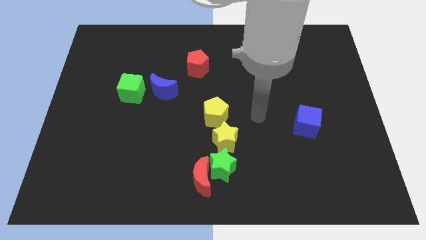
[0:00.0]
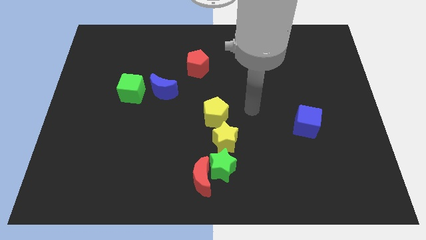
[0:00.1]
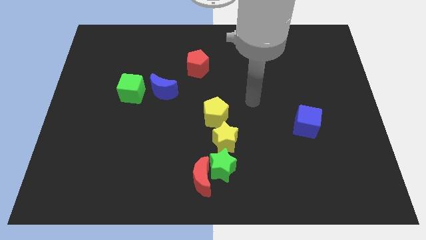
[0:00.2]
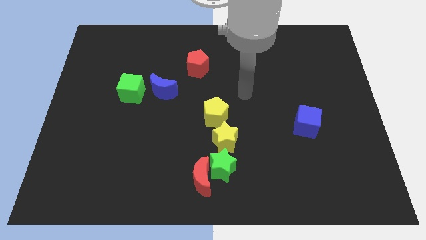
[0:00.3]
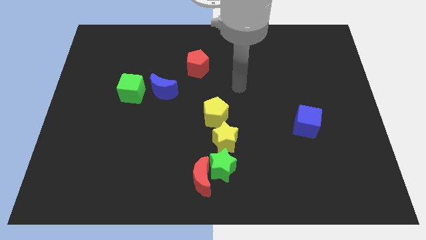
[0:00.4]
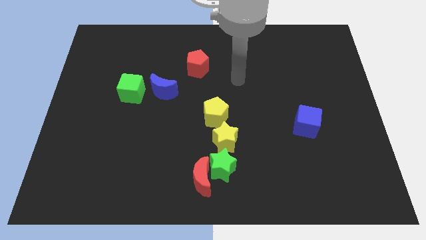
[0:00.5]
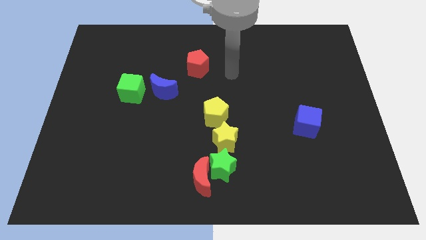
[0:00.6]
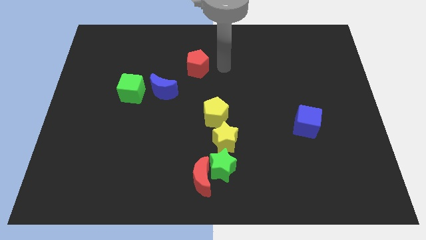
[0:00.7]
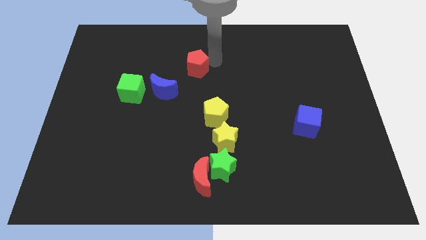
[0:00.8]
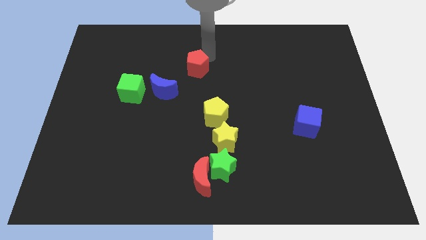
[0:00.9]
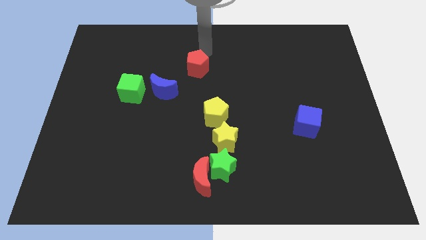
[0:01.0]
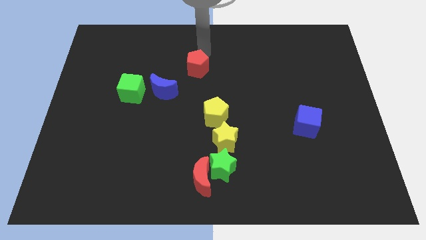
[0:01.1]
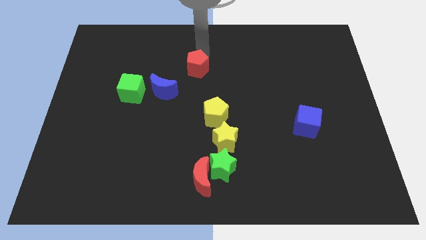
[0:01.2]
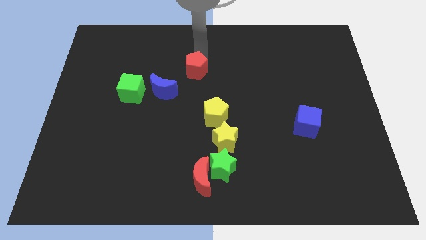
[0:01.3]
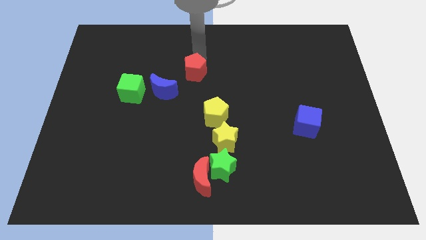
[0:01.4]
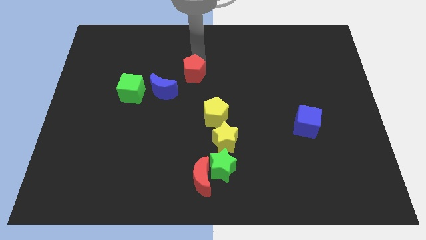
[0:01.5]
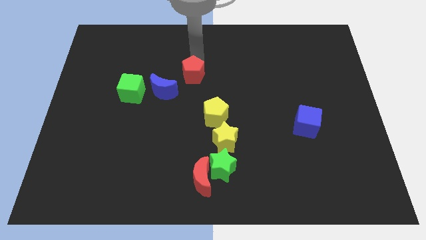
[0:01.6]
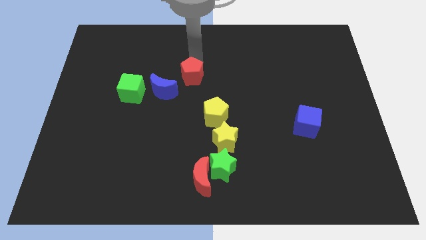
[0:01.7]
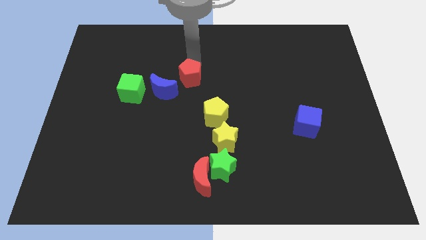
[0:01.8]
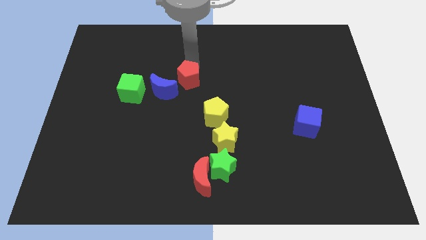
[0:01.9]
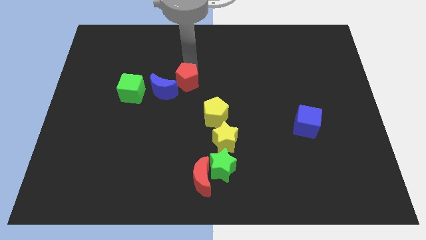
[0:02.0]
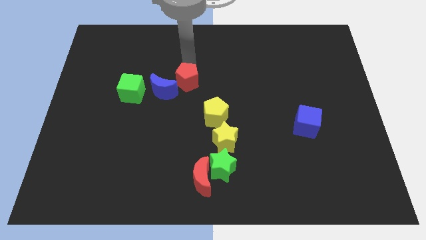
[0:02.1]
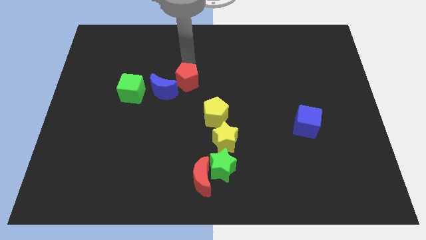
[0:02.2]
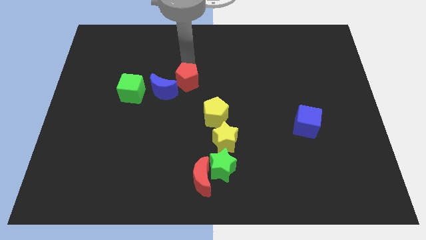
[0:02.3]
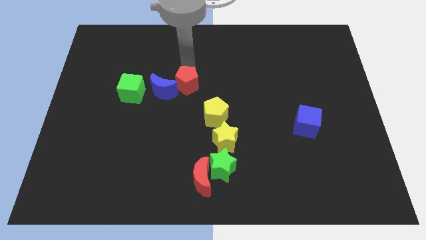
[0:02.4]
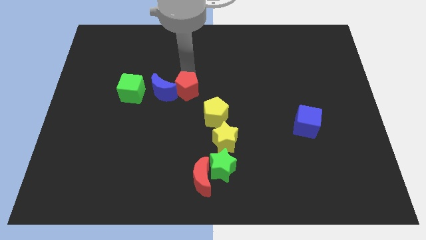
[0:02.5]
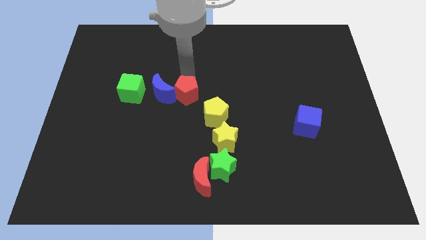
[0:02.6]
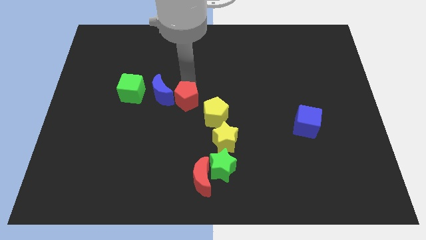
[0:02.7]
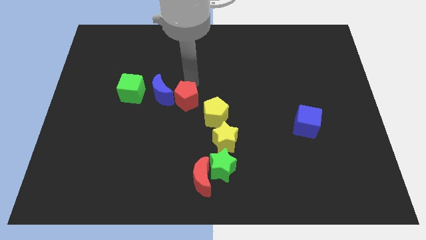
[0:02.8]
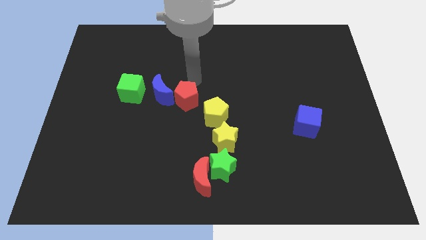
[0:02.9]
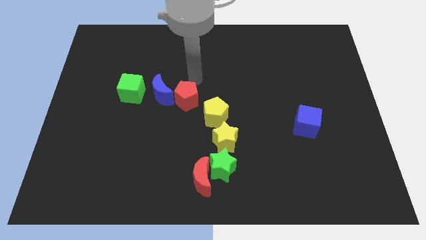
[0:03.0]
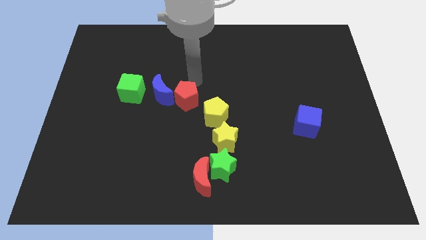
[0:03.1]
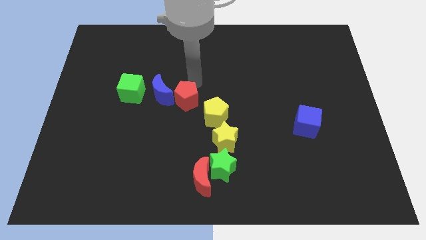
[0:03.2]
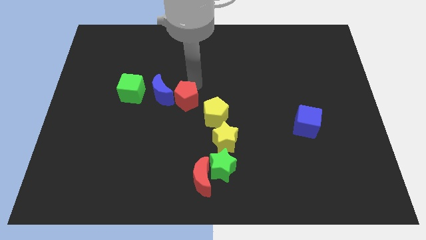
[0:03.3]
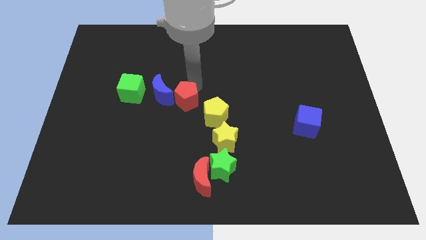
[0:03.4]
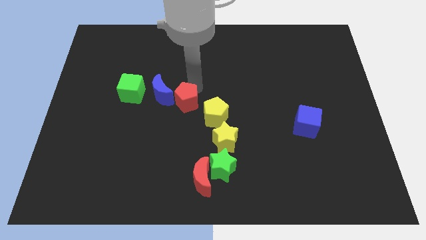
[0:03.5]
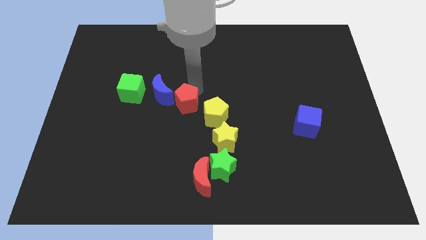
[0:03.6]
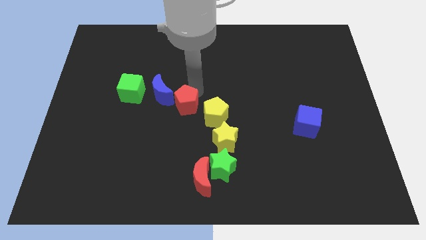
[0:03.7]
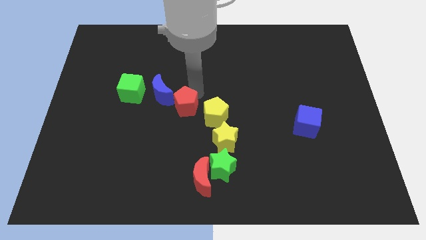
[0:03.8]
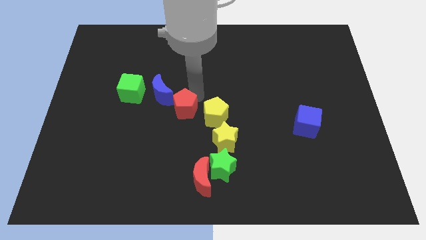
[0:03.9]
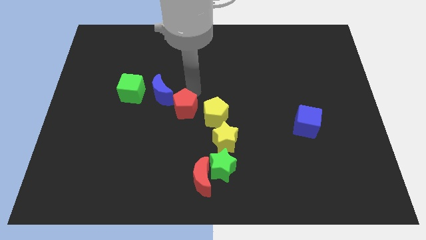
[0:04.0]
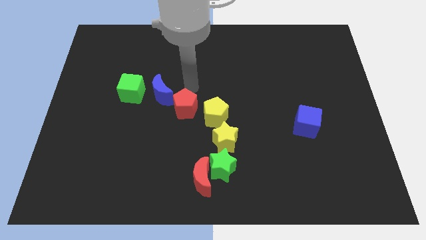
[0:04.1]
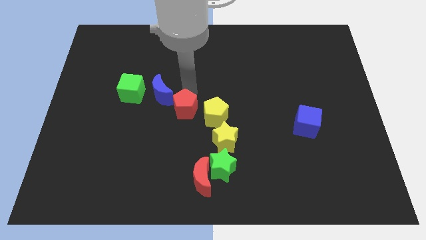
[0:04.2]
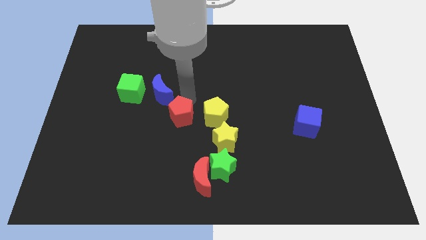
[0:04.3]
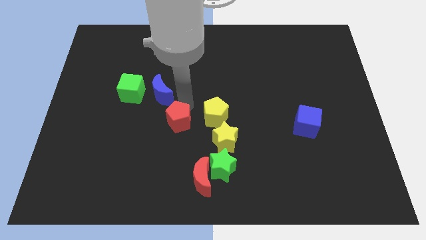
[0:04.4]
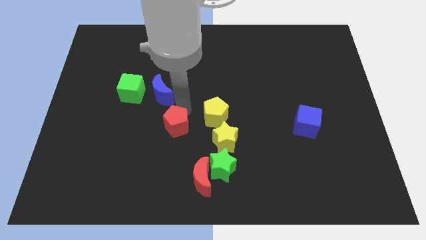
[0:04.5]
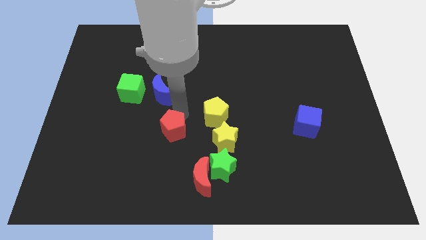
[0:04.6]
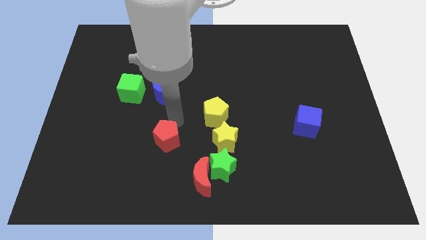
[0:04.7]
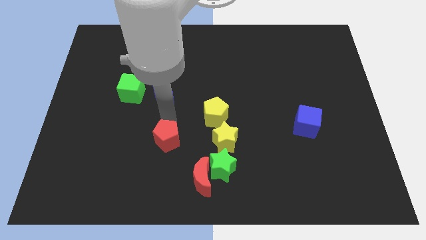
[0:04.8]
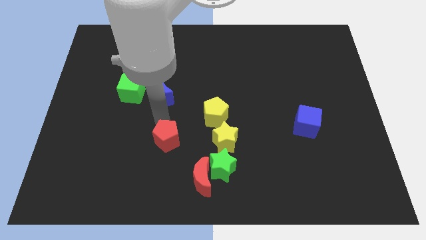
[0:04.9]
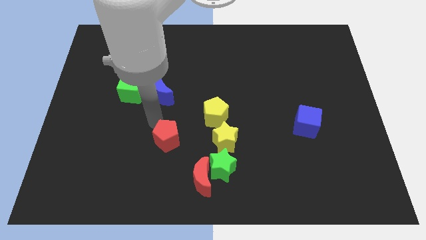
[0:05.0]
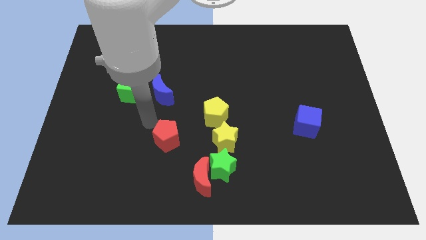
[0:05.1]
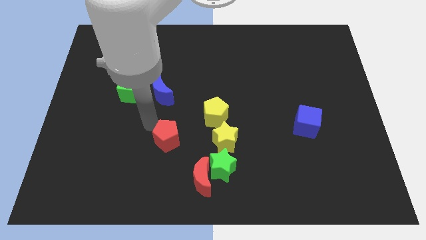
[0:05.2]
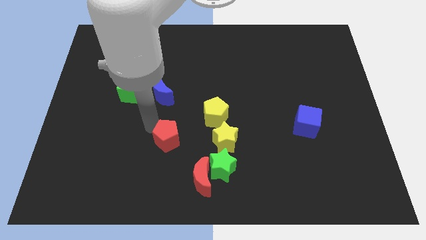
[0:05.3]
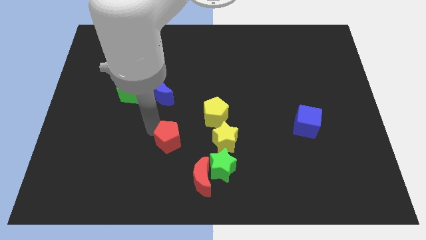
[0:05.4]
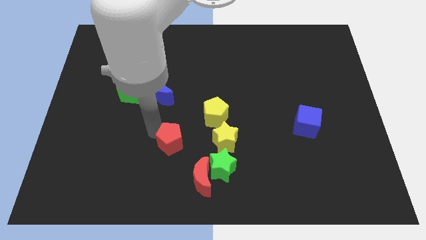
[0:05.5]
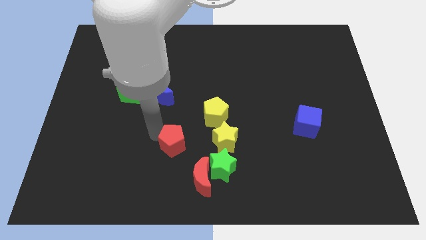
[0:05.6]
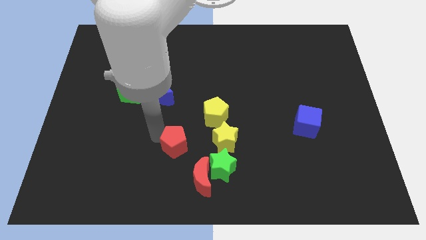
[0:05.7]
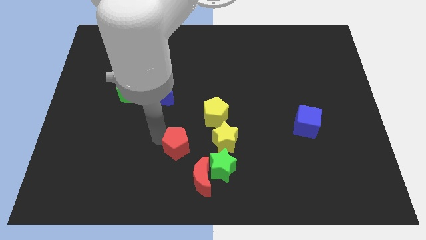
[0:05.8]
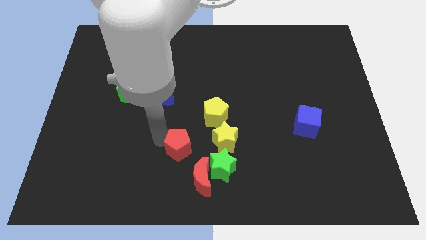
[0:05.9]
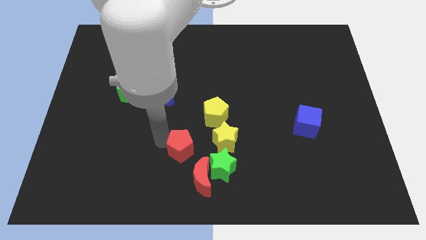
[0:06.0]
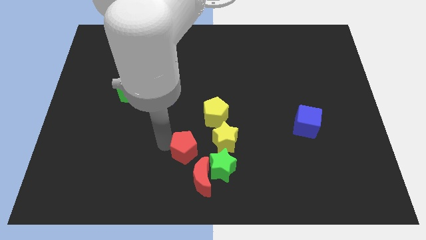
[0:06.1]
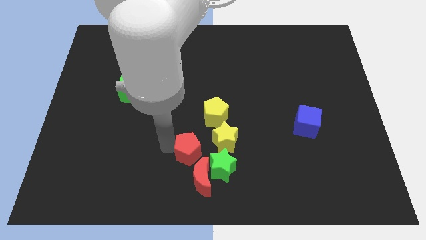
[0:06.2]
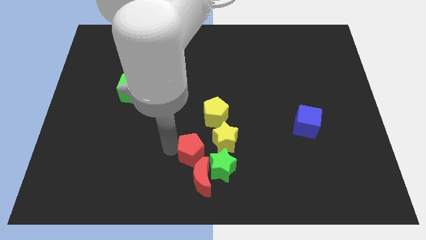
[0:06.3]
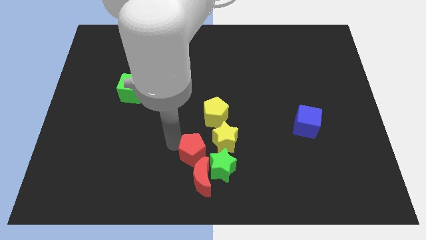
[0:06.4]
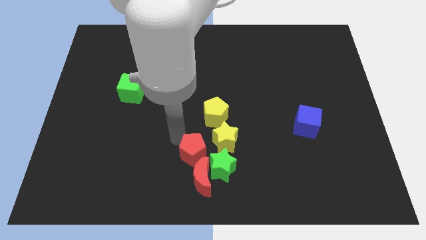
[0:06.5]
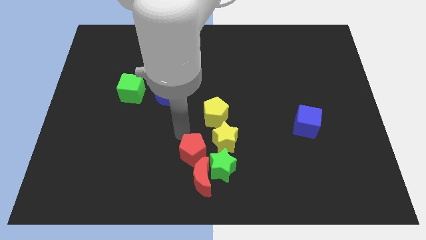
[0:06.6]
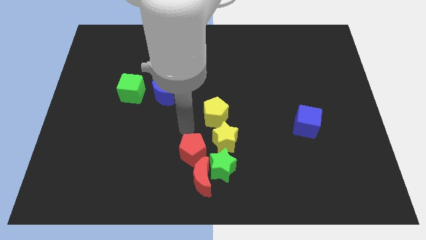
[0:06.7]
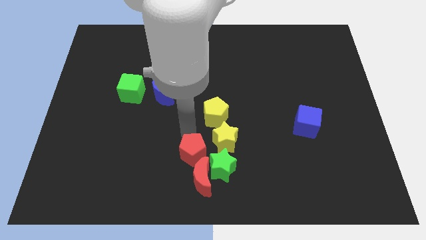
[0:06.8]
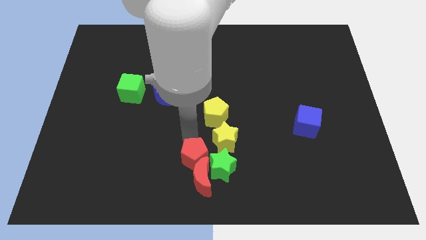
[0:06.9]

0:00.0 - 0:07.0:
put the red pentagon to the red moon
